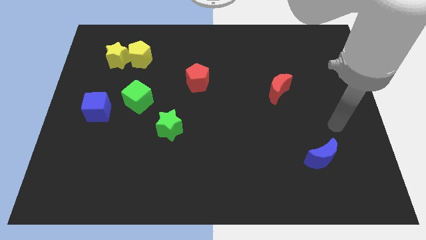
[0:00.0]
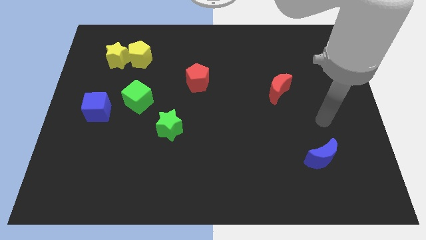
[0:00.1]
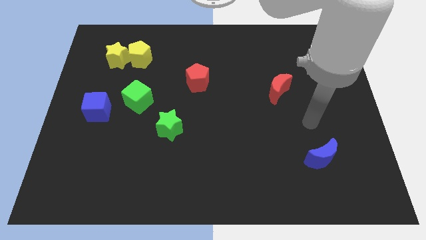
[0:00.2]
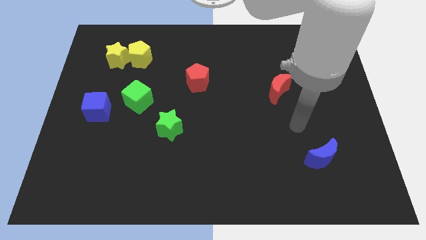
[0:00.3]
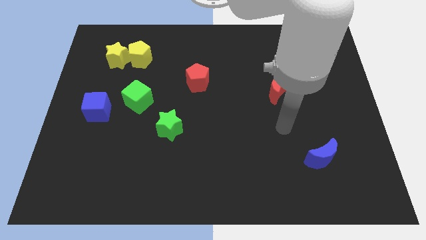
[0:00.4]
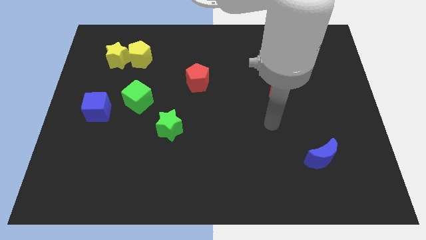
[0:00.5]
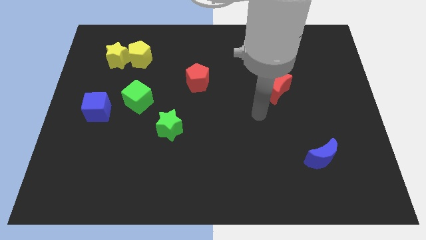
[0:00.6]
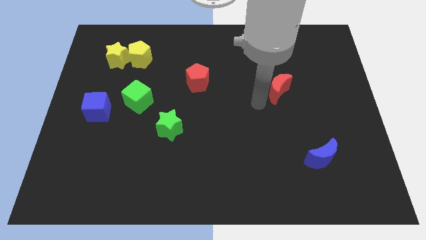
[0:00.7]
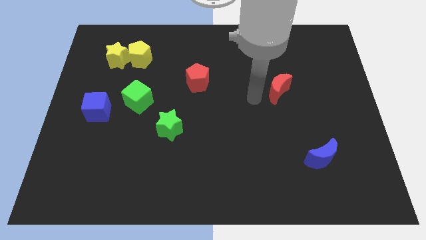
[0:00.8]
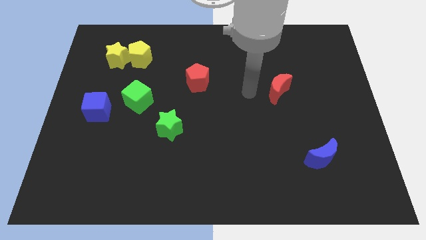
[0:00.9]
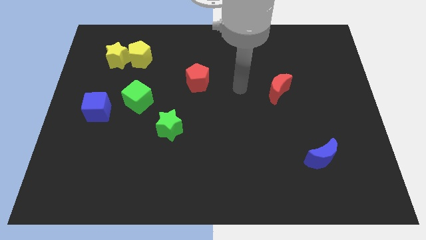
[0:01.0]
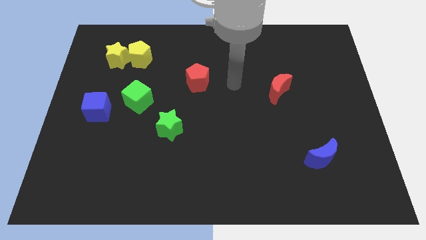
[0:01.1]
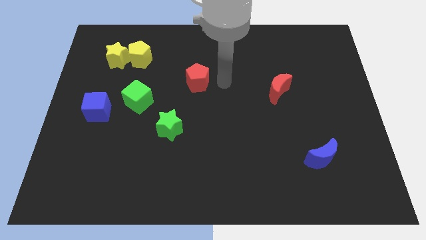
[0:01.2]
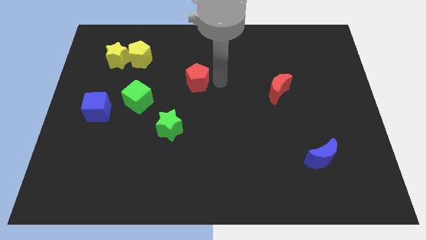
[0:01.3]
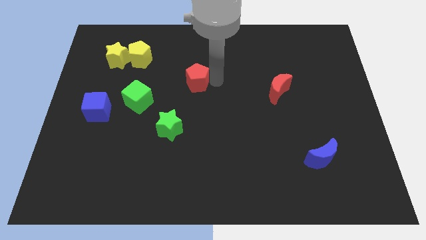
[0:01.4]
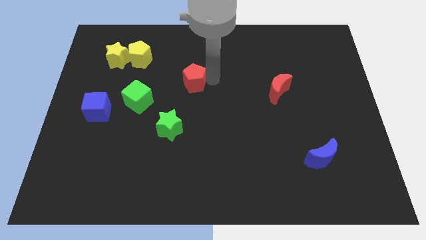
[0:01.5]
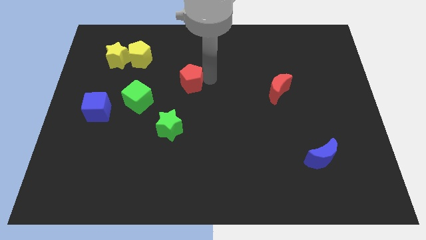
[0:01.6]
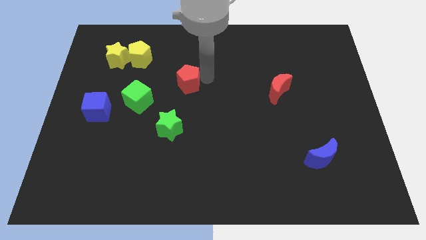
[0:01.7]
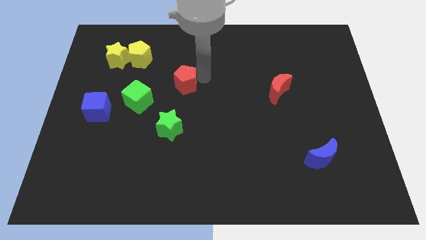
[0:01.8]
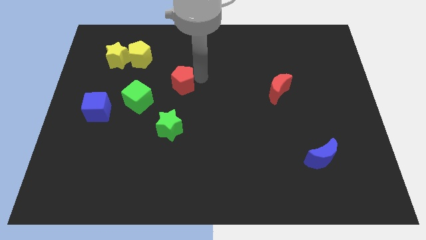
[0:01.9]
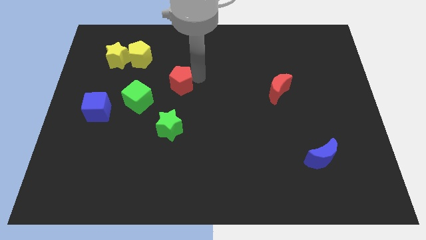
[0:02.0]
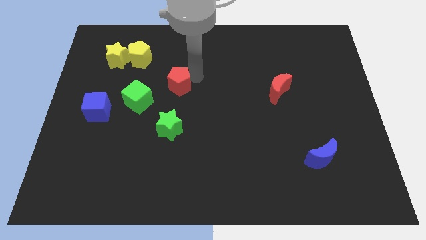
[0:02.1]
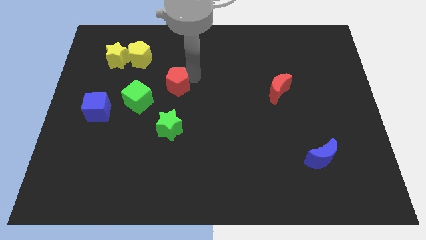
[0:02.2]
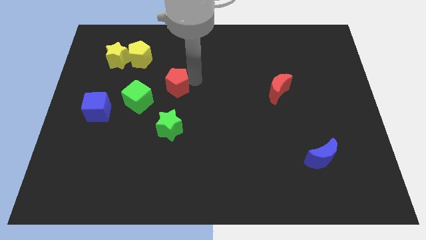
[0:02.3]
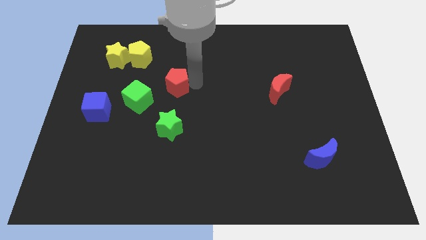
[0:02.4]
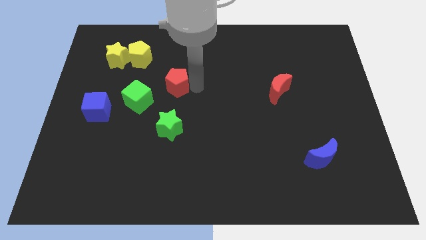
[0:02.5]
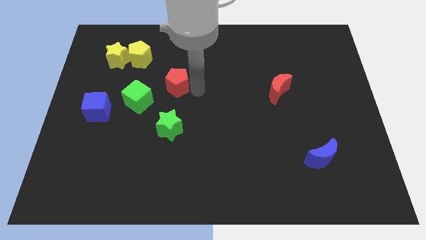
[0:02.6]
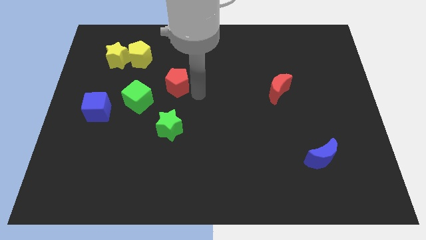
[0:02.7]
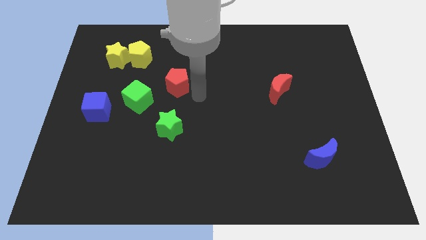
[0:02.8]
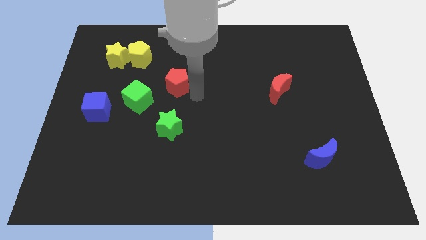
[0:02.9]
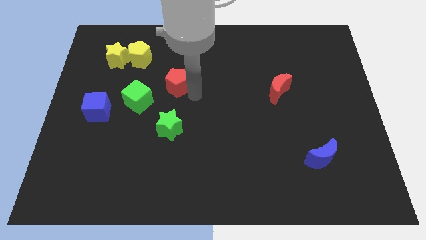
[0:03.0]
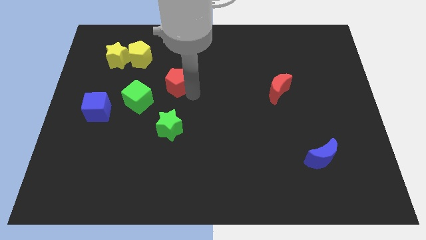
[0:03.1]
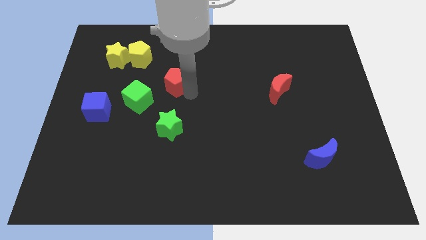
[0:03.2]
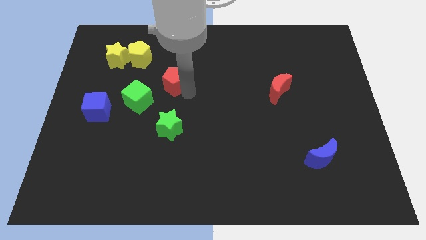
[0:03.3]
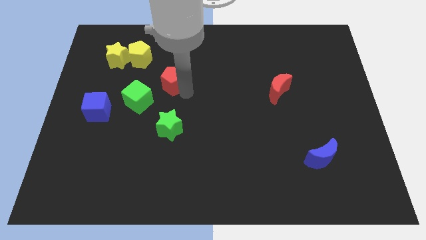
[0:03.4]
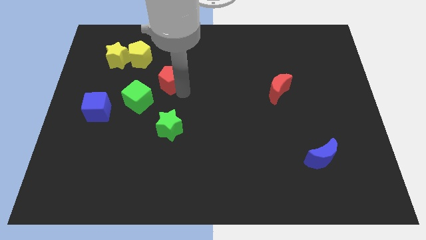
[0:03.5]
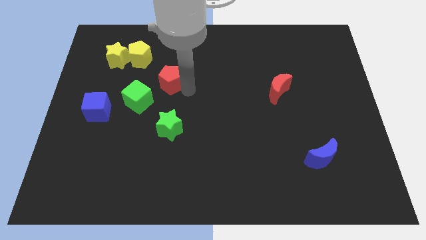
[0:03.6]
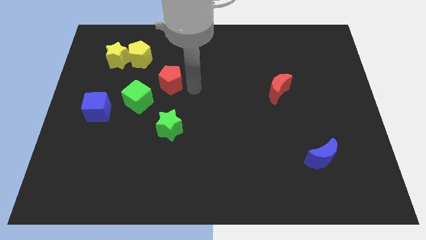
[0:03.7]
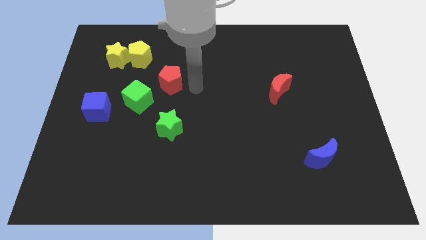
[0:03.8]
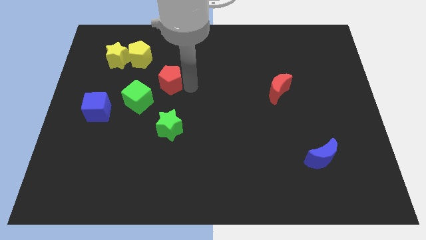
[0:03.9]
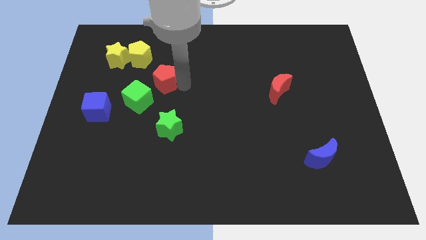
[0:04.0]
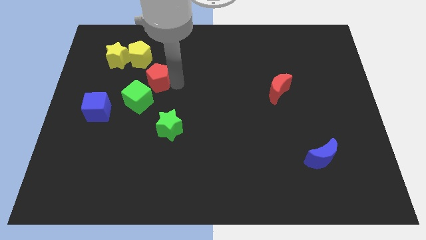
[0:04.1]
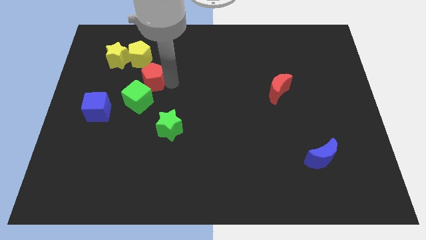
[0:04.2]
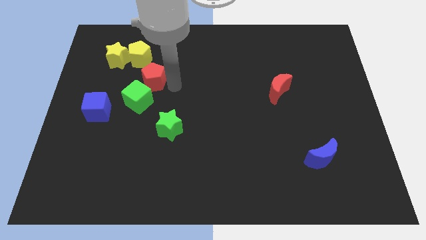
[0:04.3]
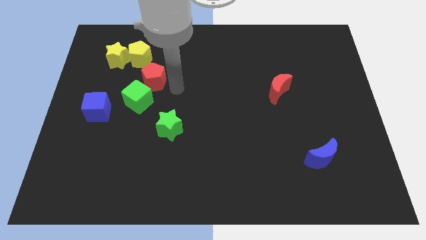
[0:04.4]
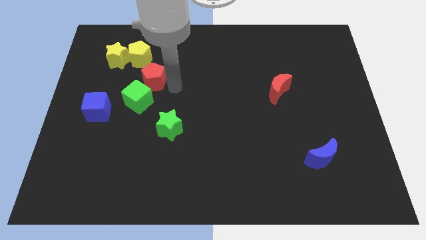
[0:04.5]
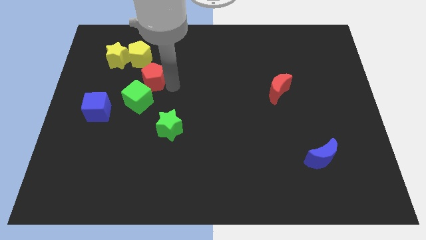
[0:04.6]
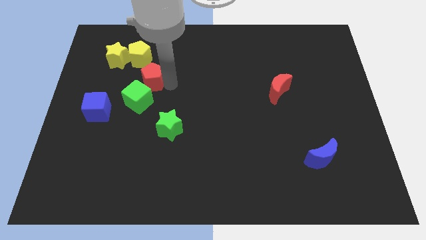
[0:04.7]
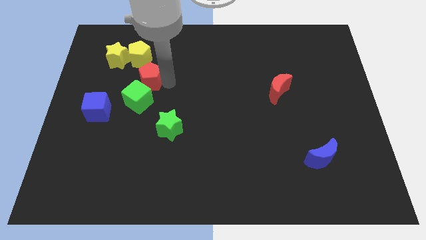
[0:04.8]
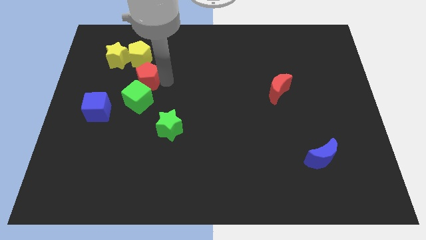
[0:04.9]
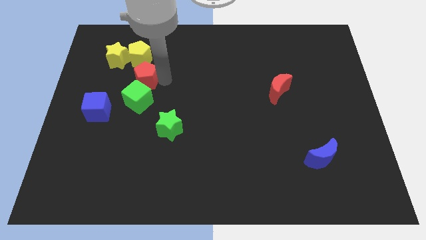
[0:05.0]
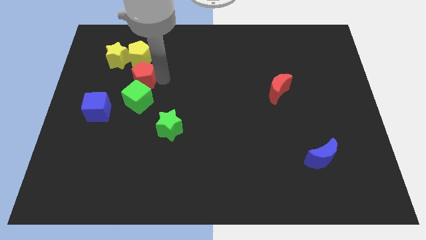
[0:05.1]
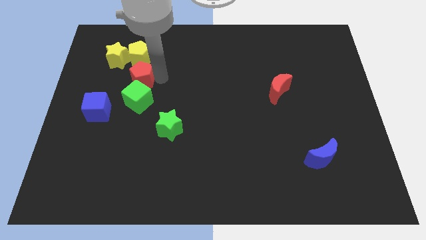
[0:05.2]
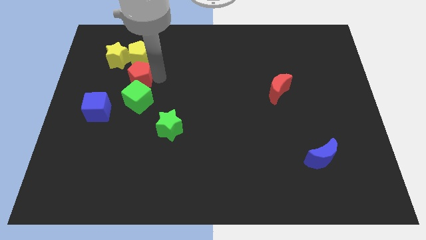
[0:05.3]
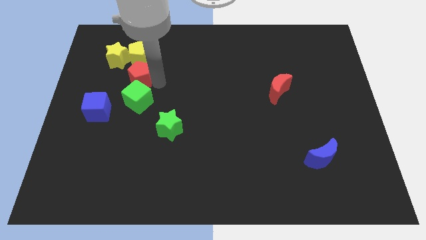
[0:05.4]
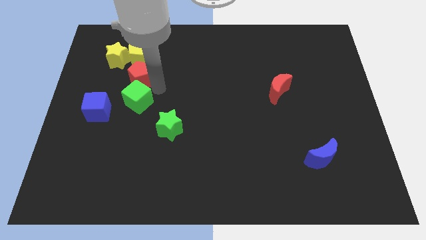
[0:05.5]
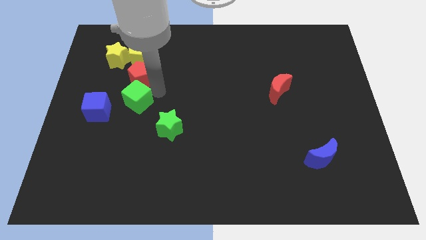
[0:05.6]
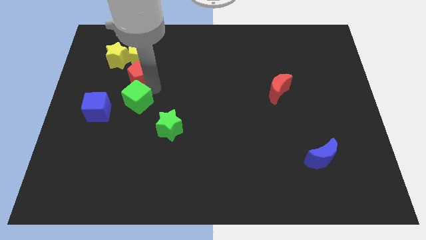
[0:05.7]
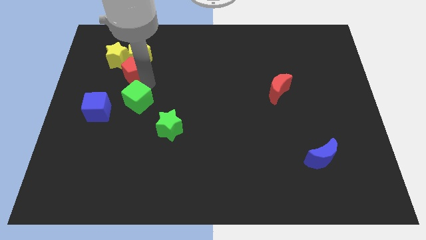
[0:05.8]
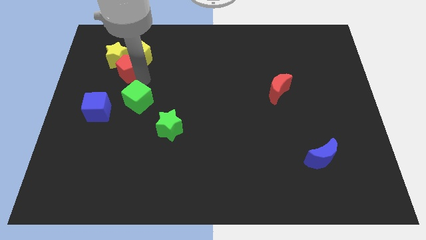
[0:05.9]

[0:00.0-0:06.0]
move the red pentagon towards the yellow star
